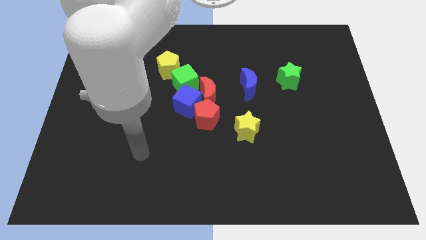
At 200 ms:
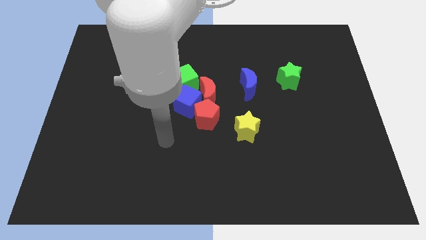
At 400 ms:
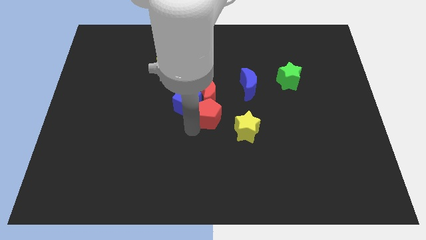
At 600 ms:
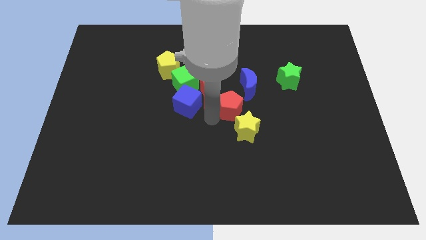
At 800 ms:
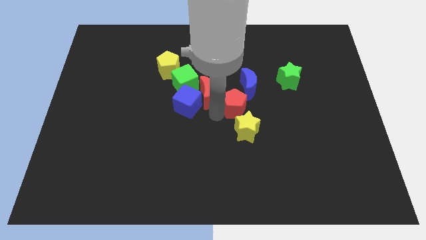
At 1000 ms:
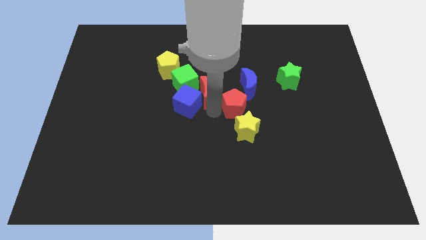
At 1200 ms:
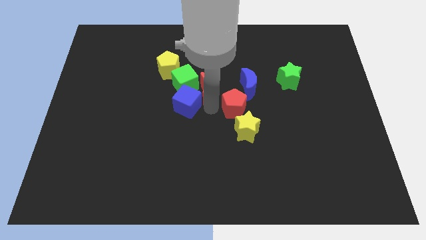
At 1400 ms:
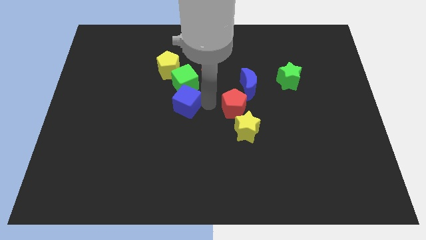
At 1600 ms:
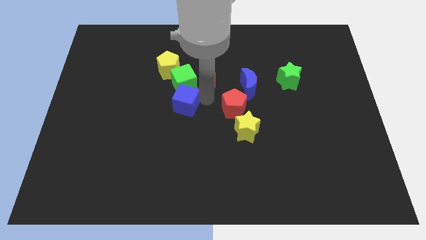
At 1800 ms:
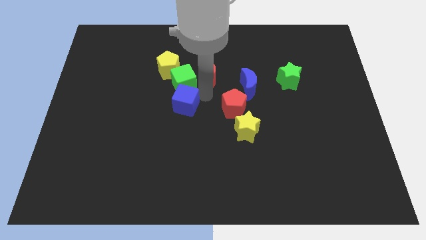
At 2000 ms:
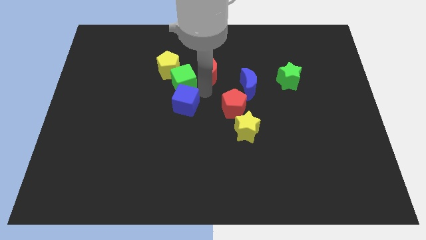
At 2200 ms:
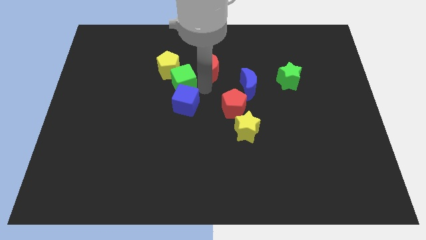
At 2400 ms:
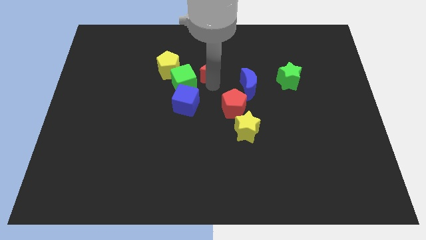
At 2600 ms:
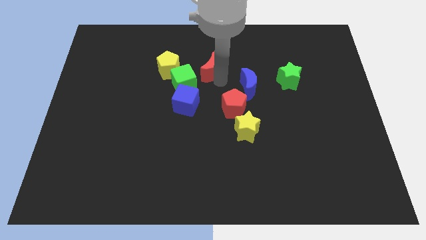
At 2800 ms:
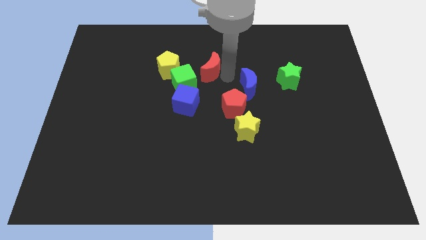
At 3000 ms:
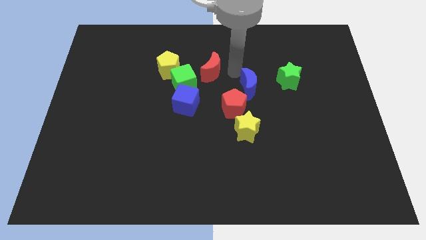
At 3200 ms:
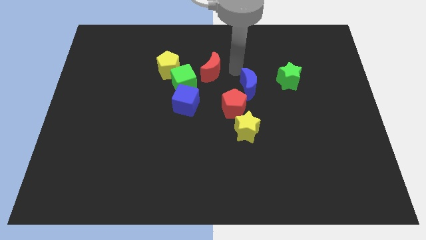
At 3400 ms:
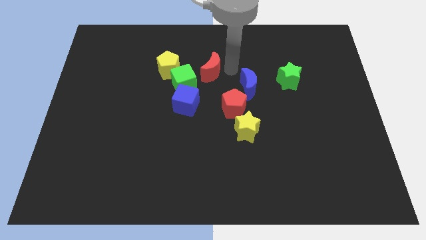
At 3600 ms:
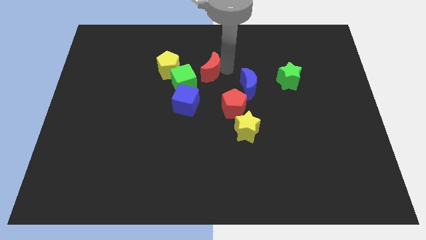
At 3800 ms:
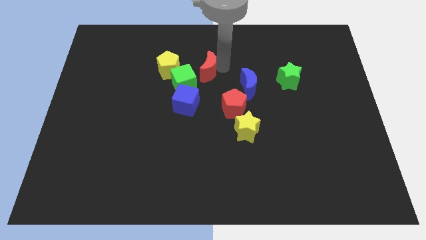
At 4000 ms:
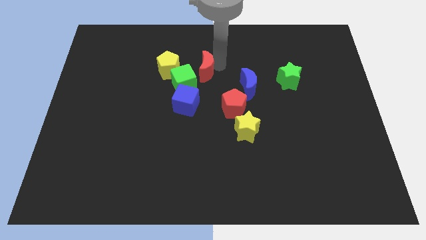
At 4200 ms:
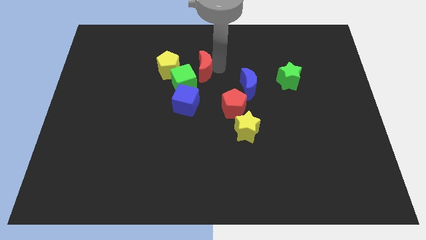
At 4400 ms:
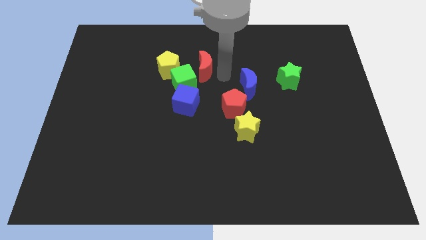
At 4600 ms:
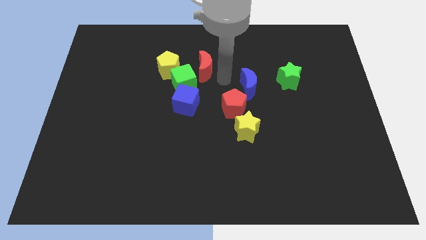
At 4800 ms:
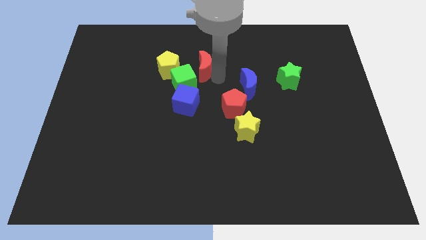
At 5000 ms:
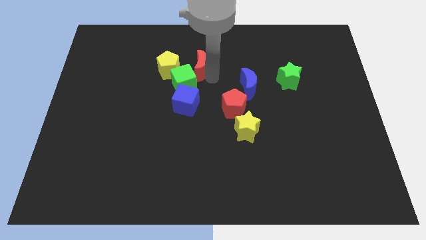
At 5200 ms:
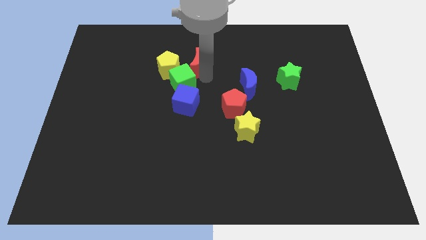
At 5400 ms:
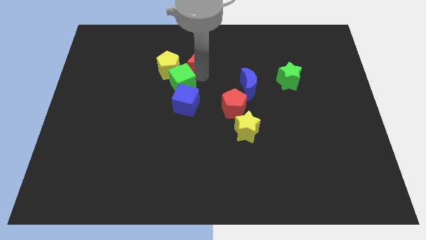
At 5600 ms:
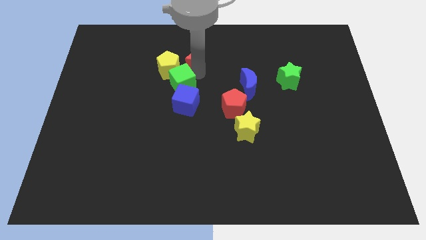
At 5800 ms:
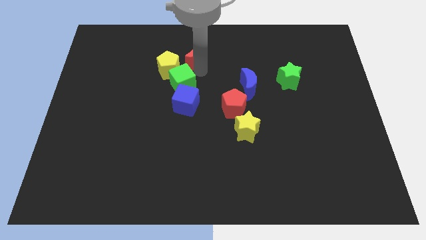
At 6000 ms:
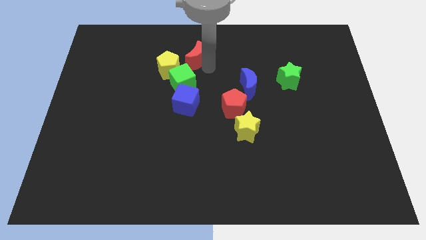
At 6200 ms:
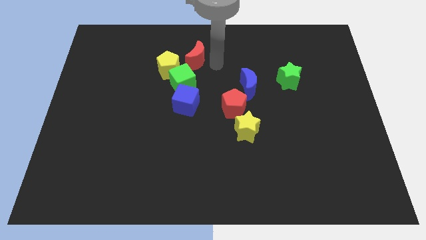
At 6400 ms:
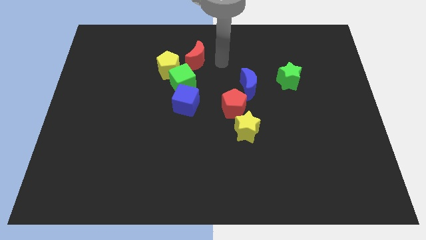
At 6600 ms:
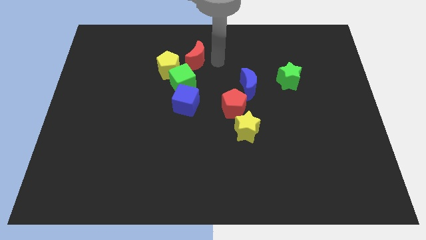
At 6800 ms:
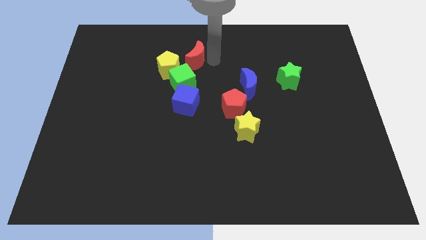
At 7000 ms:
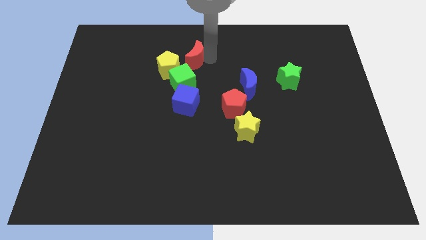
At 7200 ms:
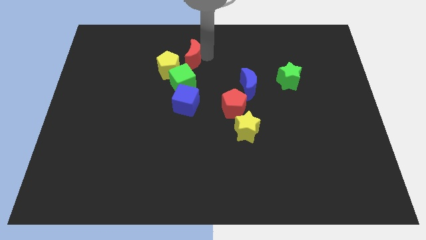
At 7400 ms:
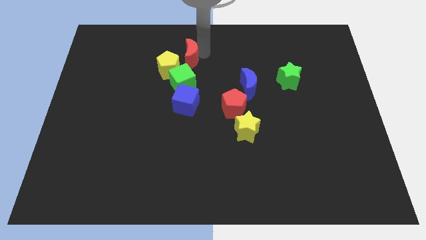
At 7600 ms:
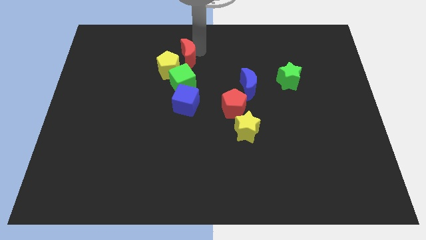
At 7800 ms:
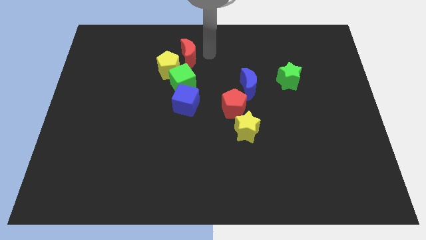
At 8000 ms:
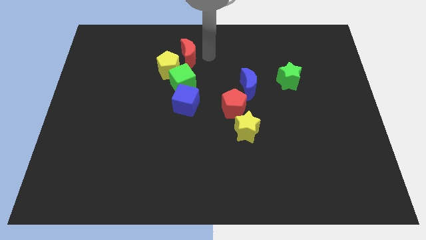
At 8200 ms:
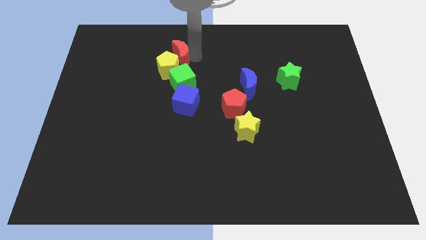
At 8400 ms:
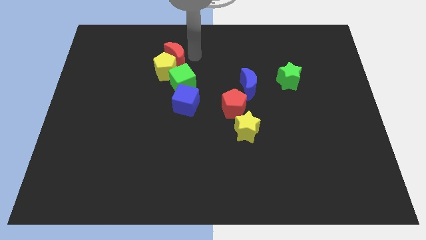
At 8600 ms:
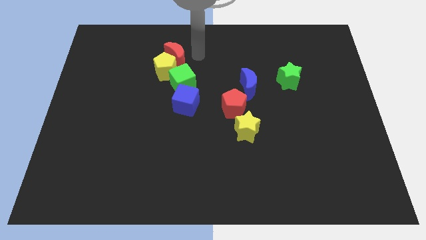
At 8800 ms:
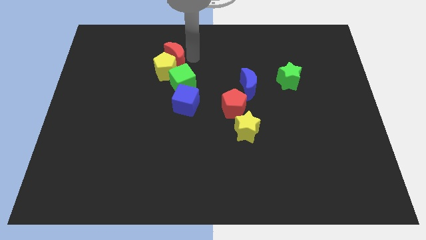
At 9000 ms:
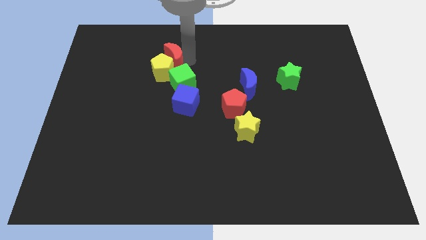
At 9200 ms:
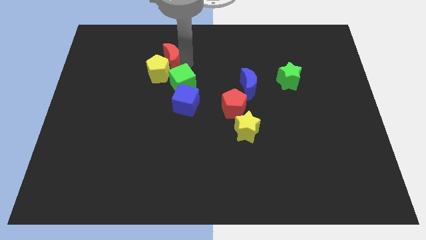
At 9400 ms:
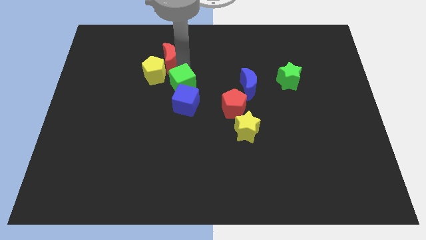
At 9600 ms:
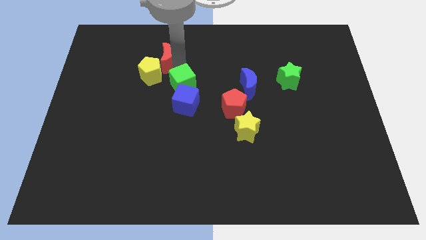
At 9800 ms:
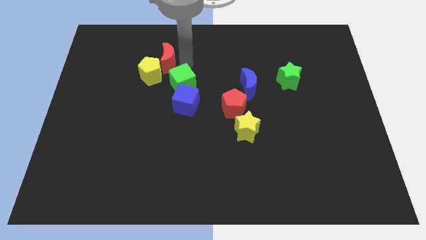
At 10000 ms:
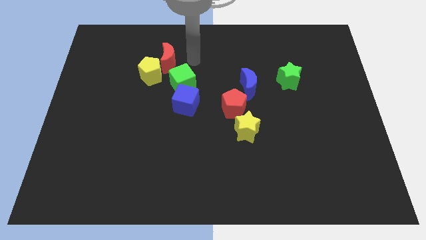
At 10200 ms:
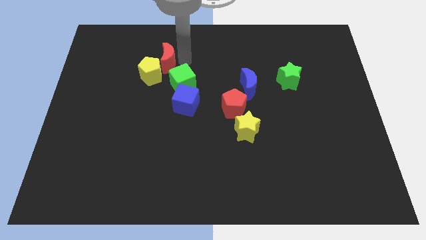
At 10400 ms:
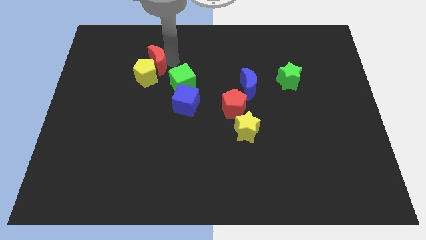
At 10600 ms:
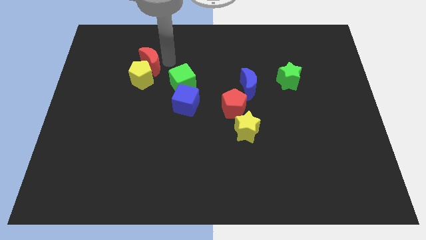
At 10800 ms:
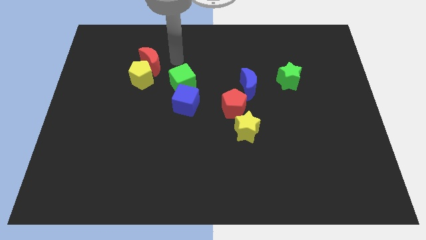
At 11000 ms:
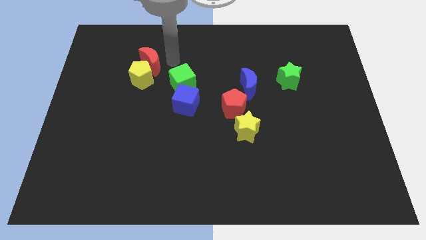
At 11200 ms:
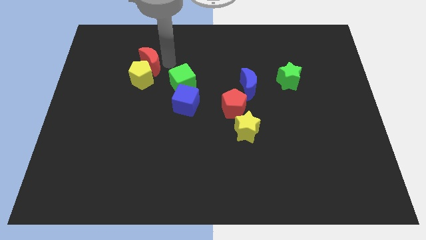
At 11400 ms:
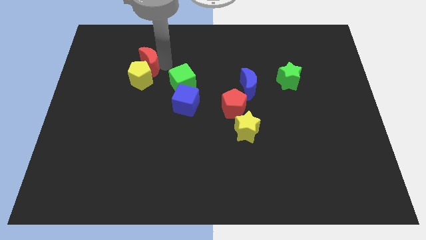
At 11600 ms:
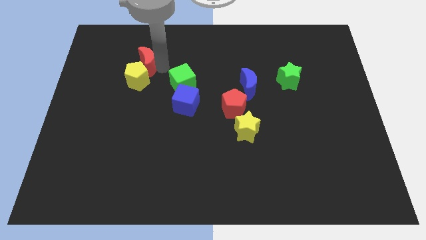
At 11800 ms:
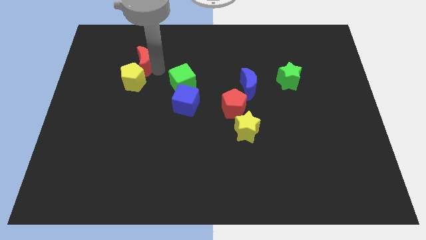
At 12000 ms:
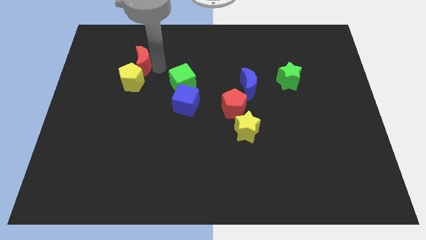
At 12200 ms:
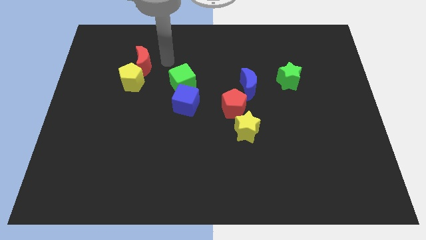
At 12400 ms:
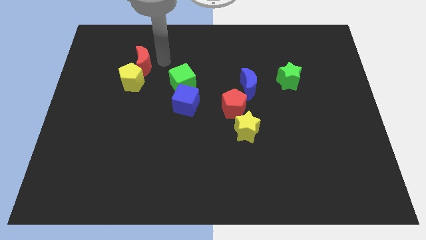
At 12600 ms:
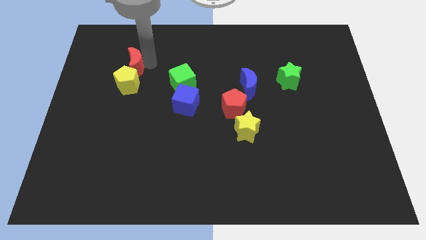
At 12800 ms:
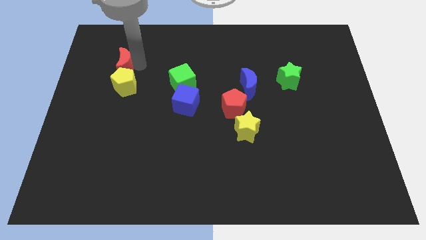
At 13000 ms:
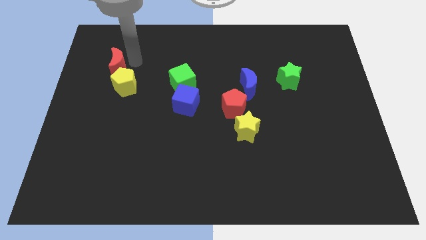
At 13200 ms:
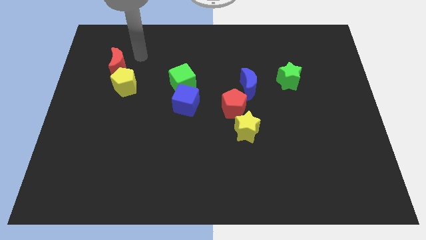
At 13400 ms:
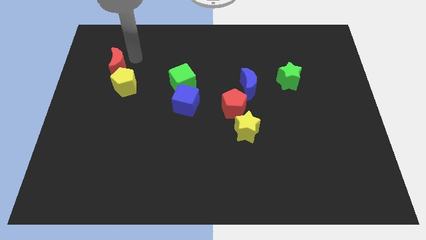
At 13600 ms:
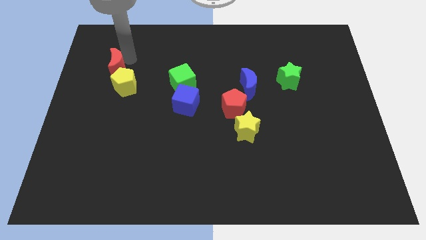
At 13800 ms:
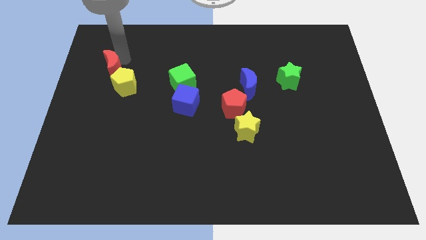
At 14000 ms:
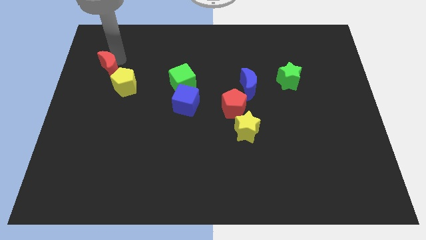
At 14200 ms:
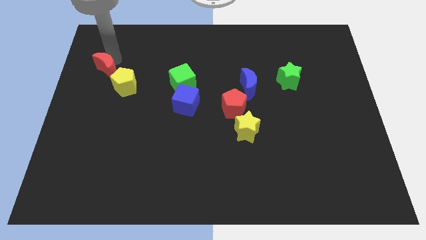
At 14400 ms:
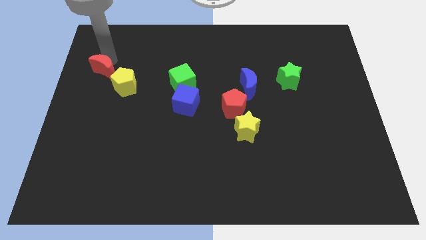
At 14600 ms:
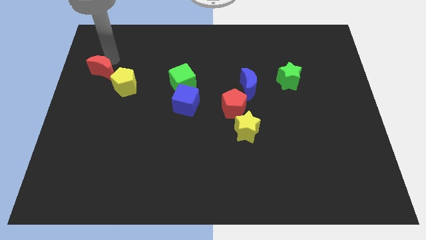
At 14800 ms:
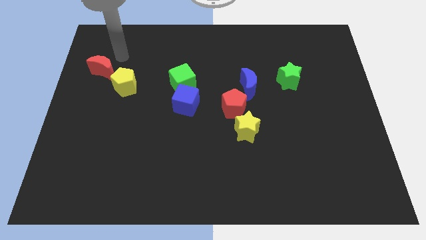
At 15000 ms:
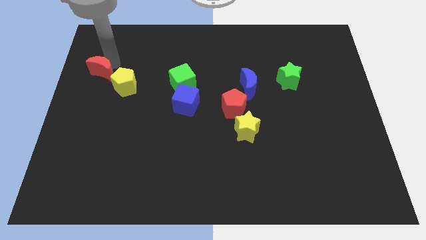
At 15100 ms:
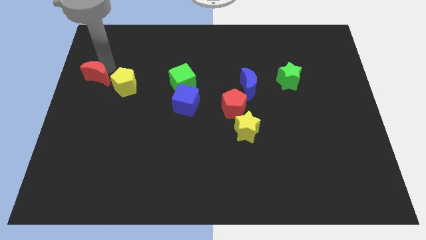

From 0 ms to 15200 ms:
put the red moon to the center left
